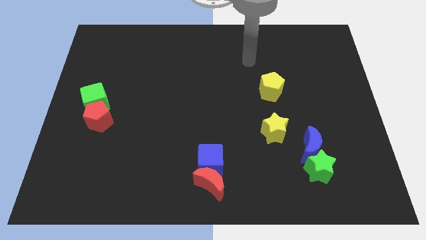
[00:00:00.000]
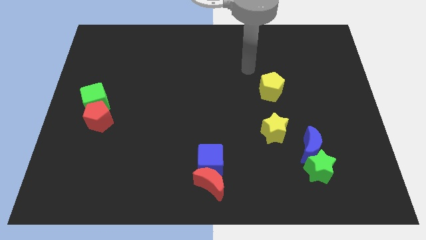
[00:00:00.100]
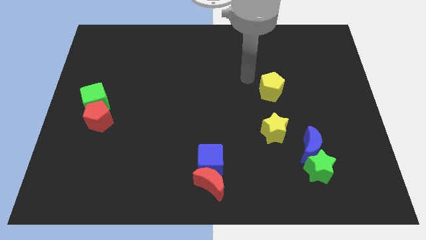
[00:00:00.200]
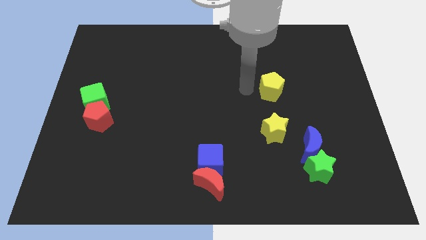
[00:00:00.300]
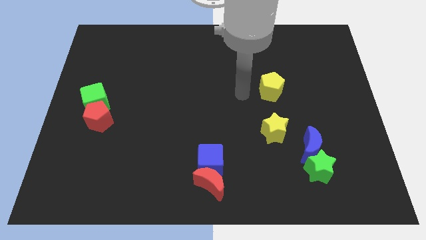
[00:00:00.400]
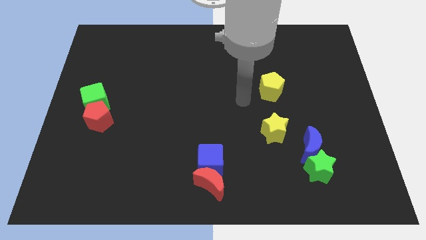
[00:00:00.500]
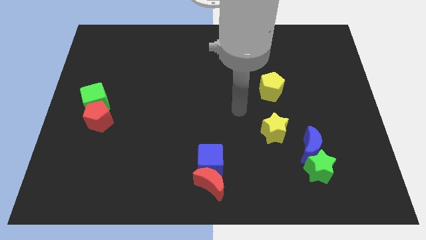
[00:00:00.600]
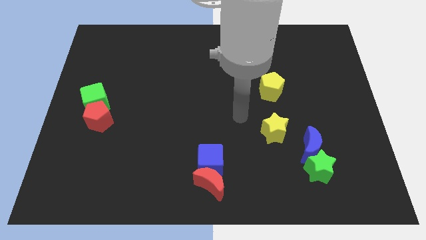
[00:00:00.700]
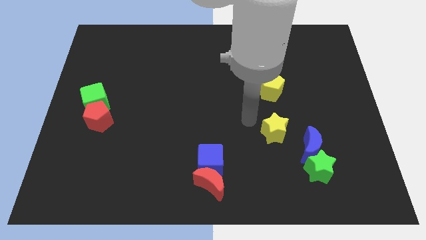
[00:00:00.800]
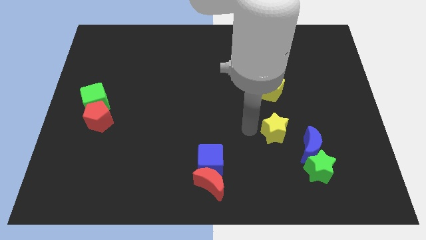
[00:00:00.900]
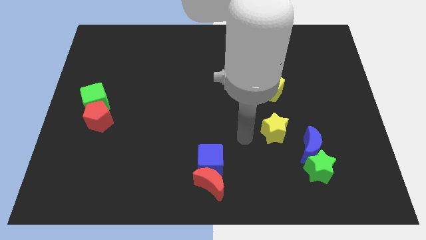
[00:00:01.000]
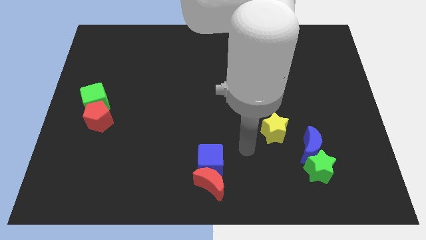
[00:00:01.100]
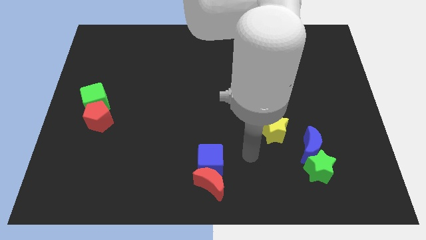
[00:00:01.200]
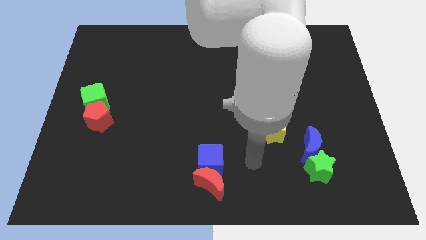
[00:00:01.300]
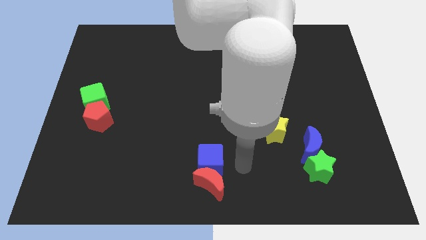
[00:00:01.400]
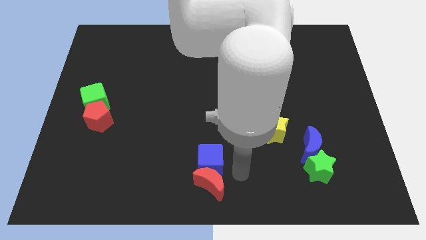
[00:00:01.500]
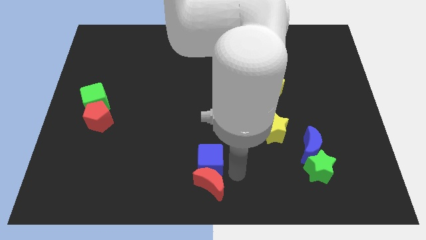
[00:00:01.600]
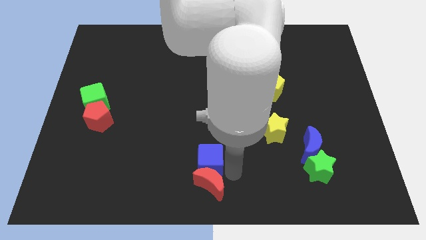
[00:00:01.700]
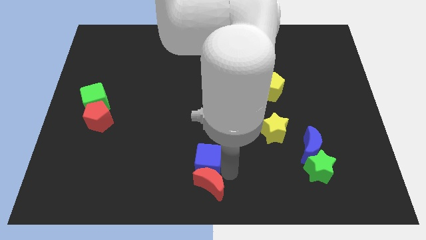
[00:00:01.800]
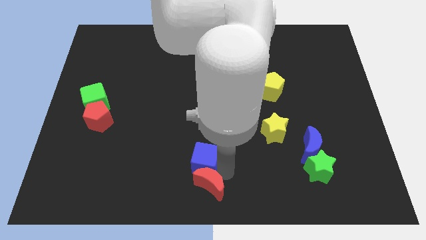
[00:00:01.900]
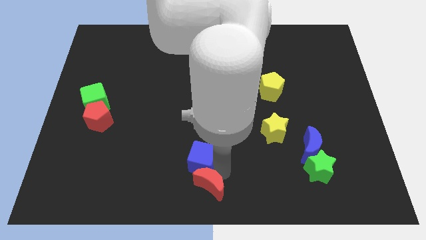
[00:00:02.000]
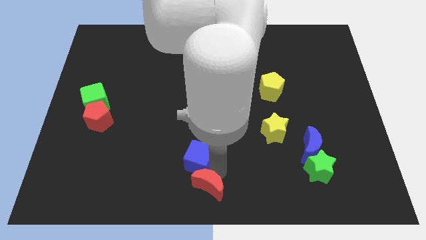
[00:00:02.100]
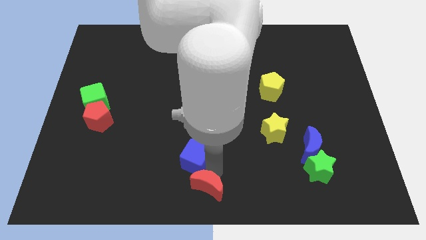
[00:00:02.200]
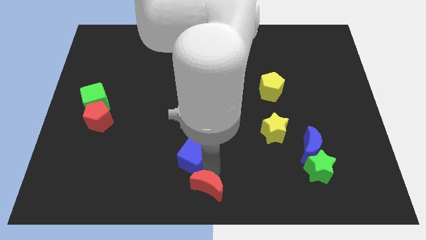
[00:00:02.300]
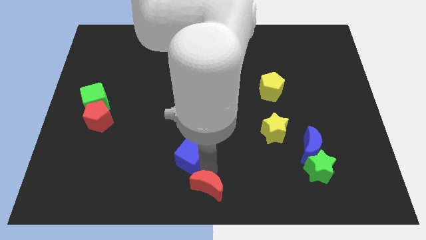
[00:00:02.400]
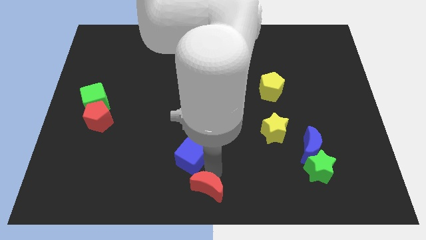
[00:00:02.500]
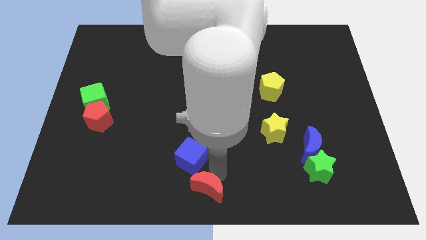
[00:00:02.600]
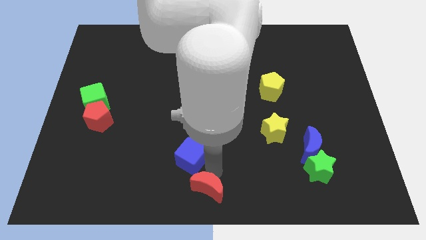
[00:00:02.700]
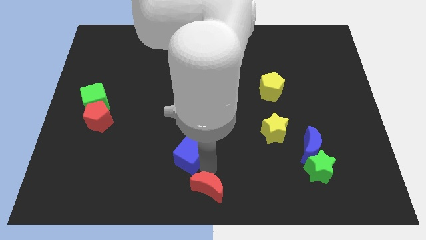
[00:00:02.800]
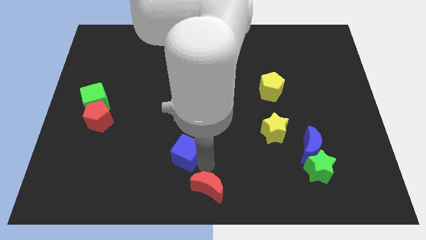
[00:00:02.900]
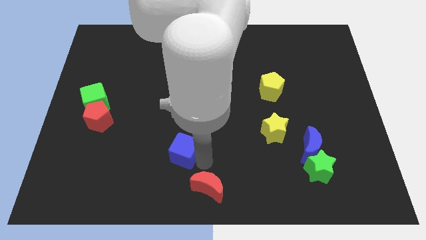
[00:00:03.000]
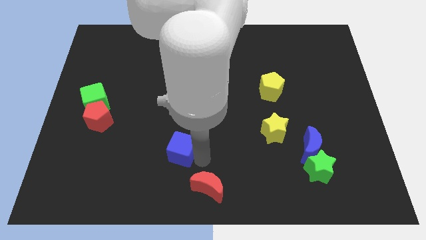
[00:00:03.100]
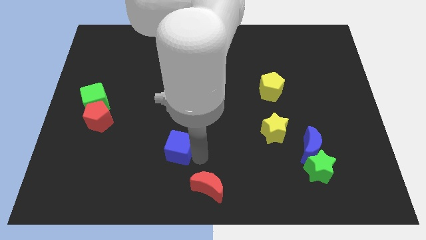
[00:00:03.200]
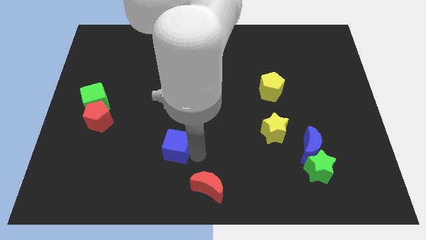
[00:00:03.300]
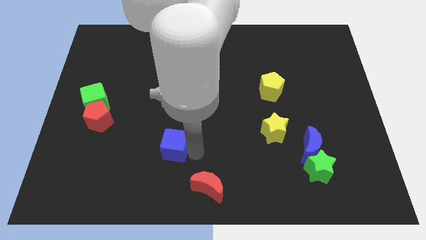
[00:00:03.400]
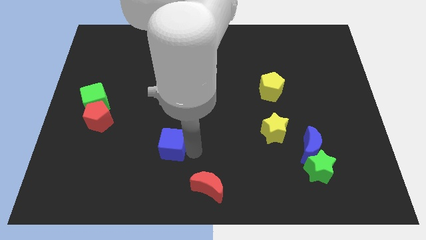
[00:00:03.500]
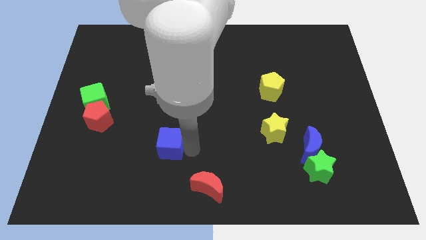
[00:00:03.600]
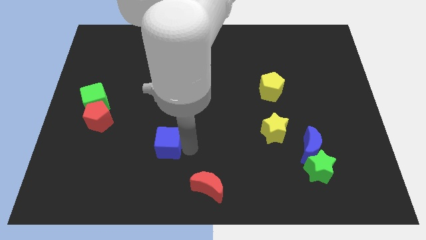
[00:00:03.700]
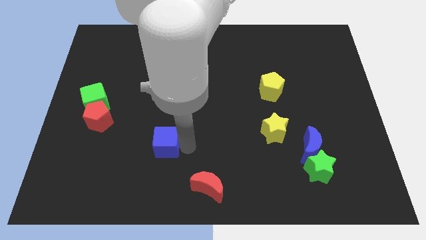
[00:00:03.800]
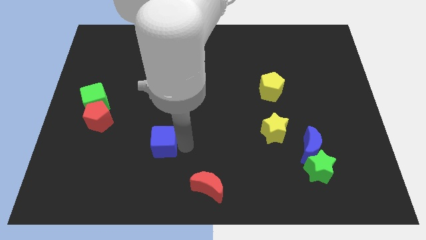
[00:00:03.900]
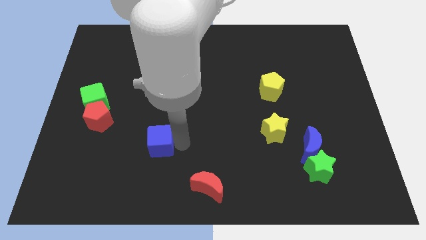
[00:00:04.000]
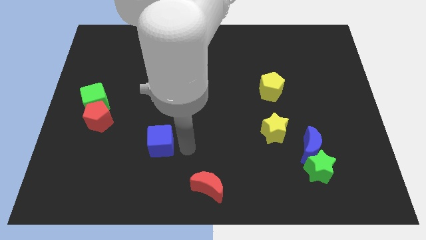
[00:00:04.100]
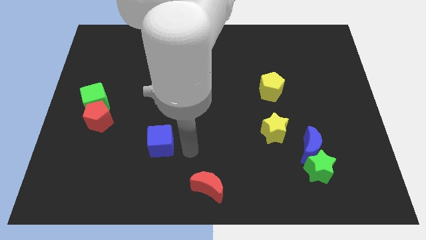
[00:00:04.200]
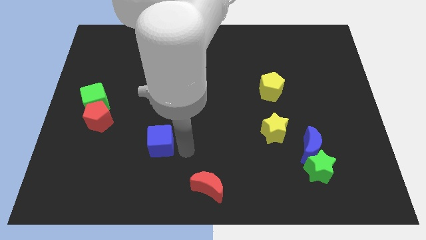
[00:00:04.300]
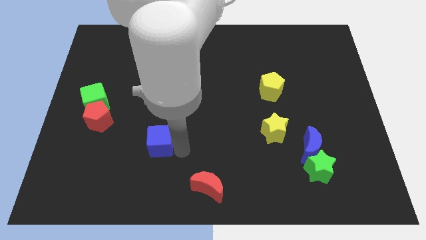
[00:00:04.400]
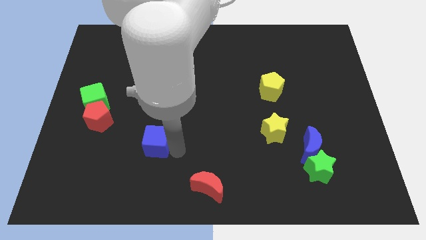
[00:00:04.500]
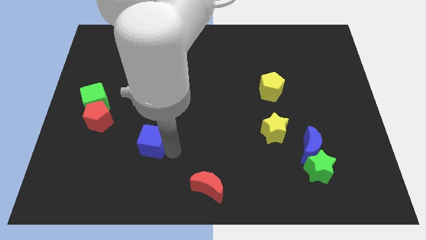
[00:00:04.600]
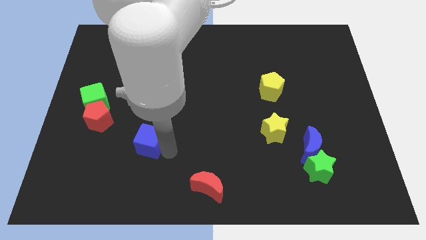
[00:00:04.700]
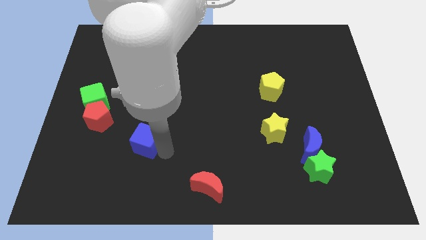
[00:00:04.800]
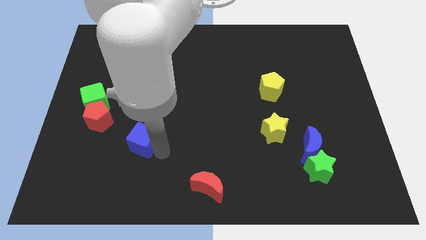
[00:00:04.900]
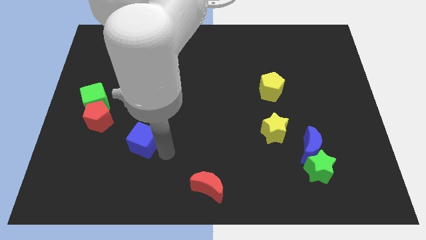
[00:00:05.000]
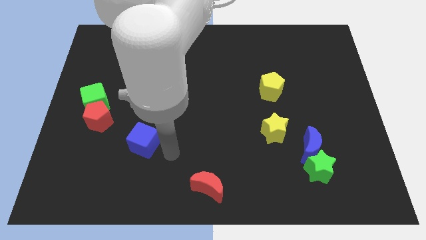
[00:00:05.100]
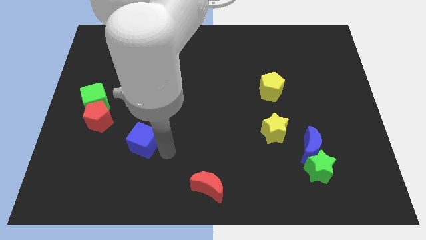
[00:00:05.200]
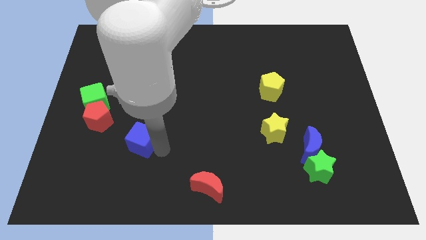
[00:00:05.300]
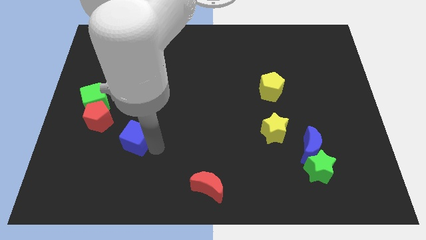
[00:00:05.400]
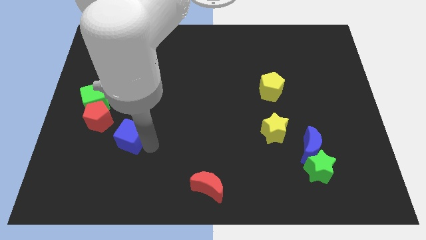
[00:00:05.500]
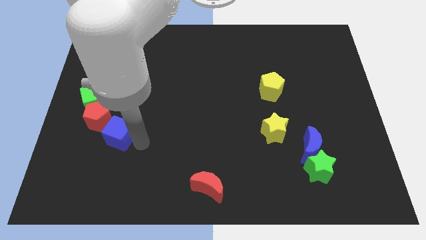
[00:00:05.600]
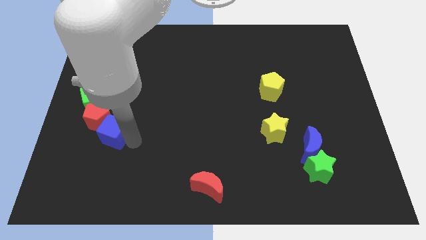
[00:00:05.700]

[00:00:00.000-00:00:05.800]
push the blue cube towards the red pentagon

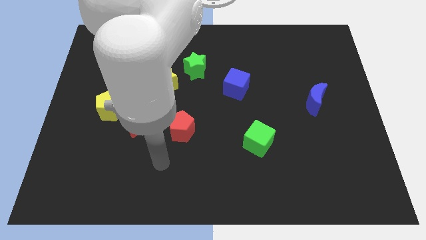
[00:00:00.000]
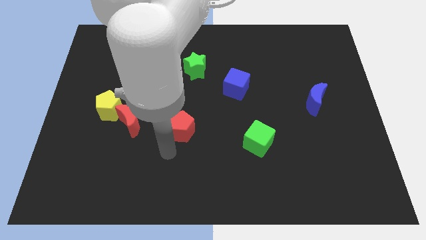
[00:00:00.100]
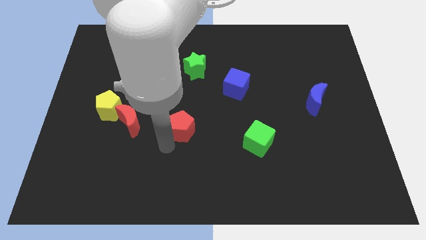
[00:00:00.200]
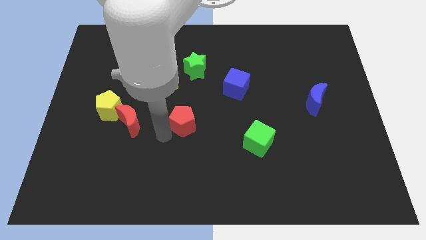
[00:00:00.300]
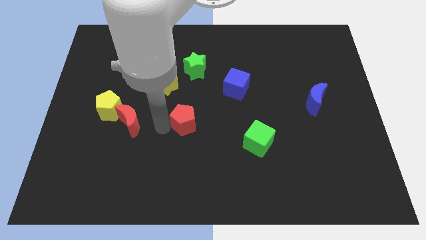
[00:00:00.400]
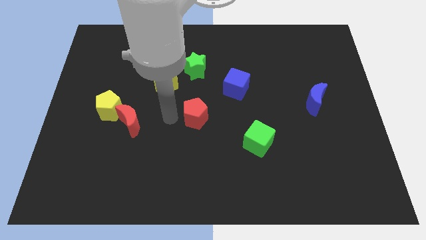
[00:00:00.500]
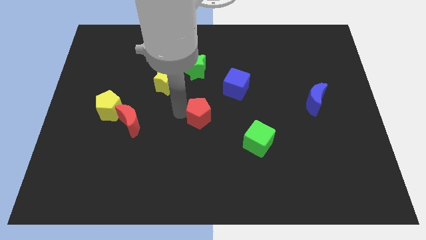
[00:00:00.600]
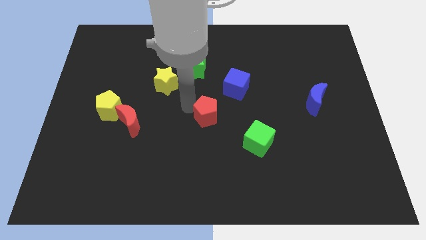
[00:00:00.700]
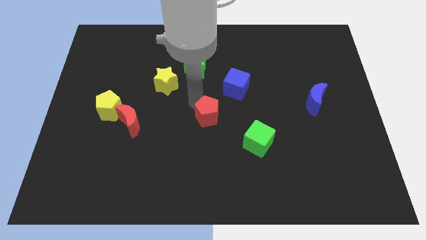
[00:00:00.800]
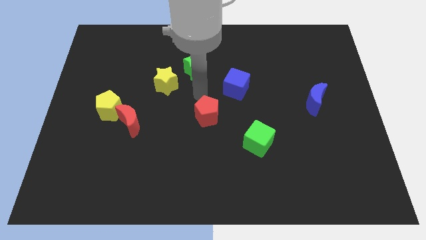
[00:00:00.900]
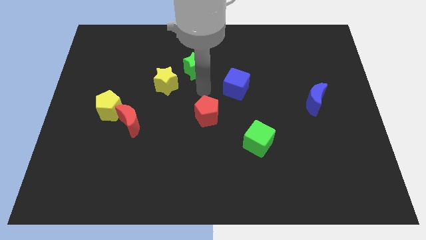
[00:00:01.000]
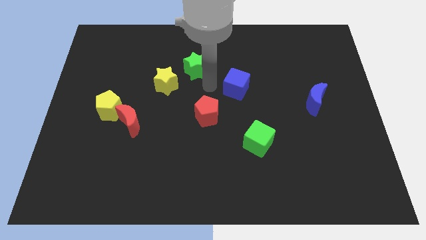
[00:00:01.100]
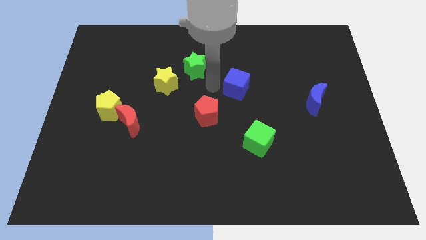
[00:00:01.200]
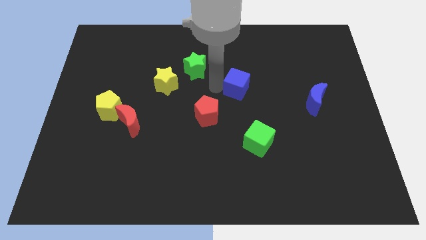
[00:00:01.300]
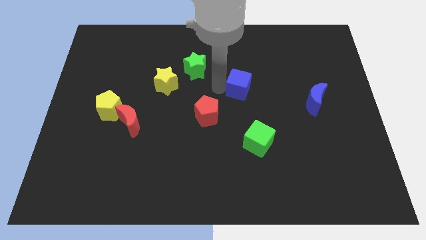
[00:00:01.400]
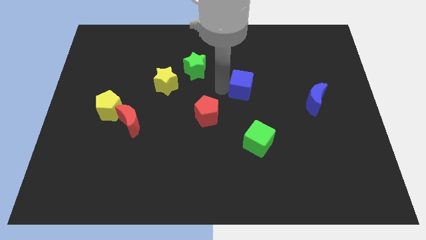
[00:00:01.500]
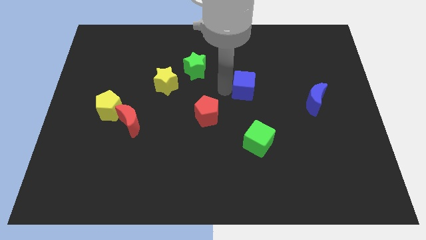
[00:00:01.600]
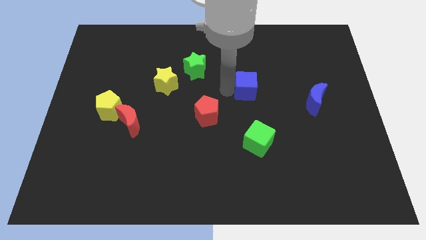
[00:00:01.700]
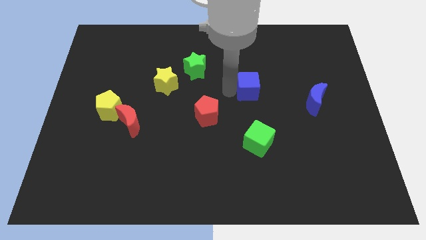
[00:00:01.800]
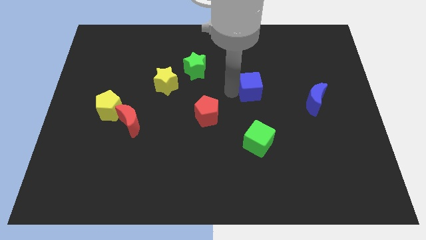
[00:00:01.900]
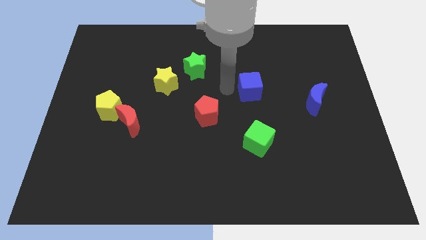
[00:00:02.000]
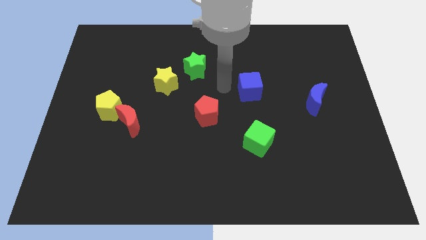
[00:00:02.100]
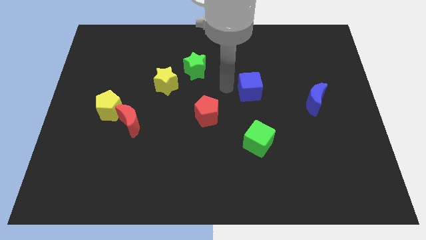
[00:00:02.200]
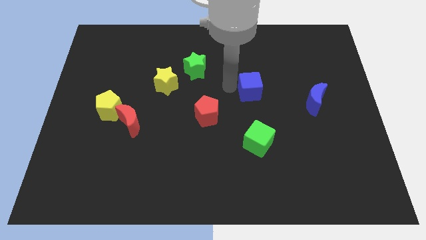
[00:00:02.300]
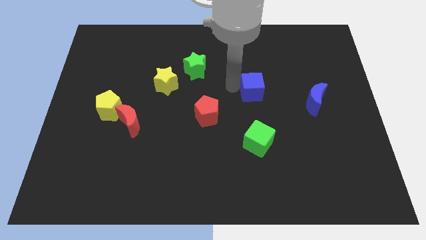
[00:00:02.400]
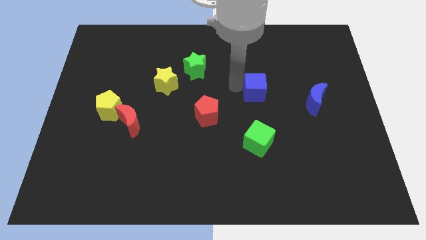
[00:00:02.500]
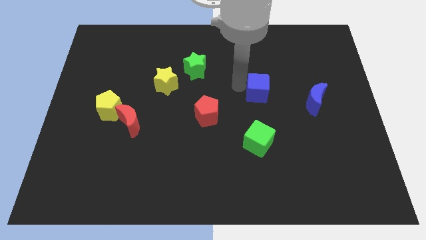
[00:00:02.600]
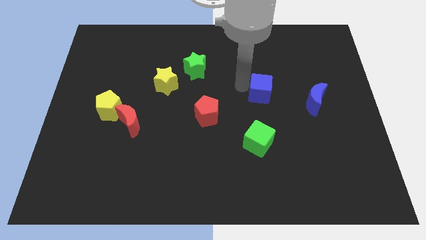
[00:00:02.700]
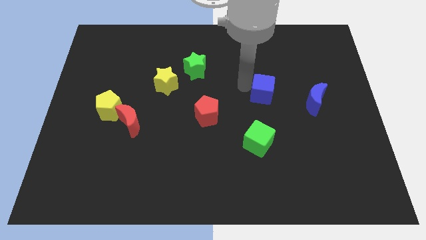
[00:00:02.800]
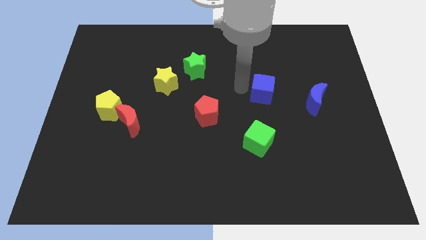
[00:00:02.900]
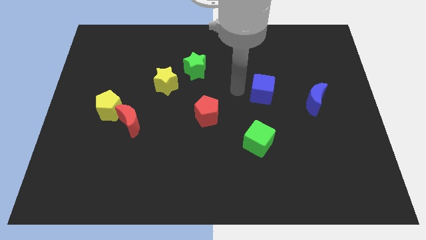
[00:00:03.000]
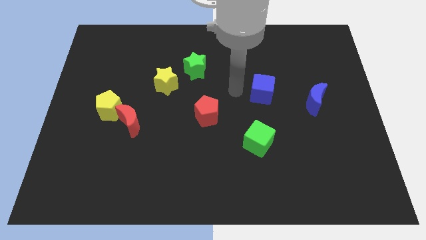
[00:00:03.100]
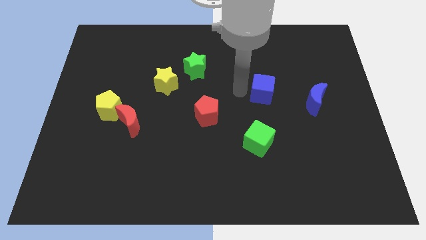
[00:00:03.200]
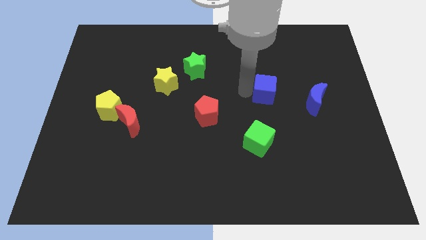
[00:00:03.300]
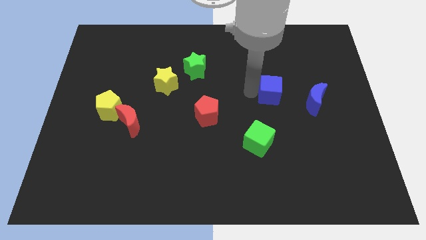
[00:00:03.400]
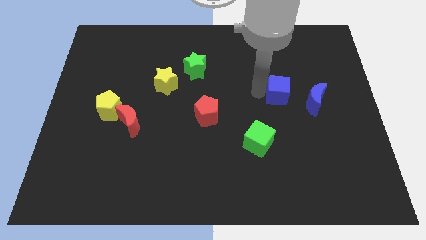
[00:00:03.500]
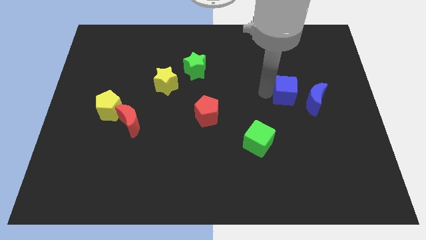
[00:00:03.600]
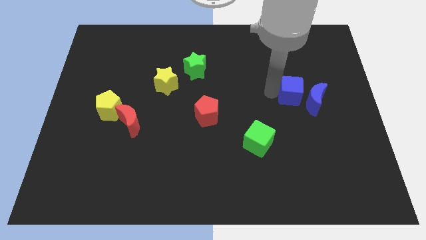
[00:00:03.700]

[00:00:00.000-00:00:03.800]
slide the blue cube towards the blue moon
